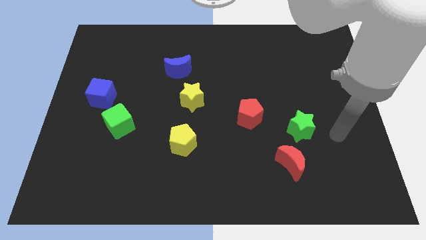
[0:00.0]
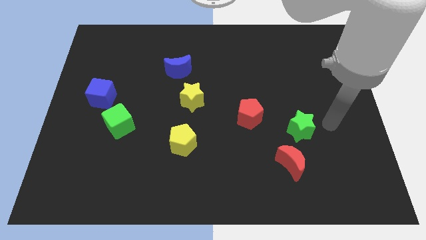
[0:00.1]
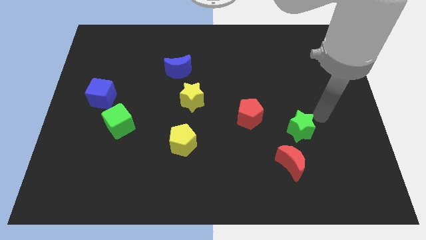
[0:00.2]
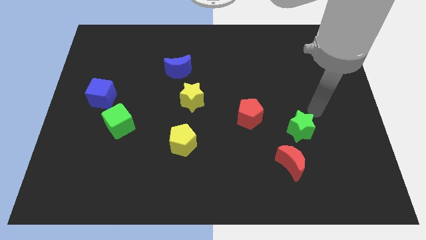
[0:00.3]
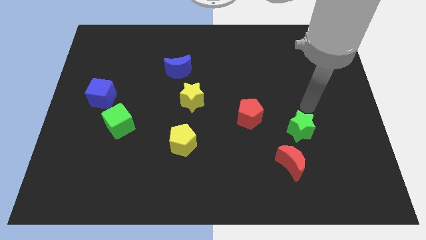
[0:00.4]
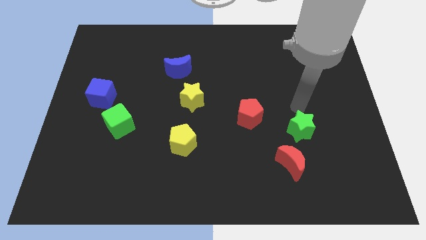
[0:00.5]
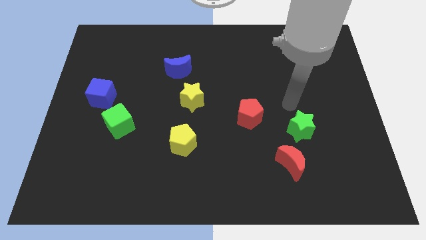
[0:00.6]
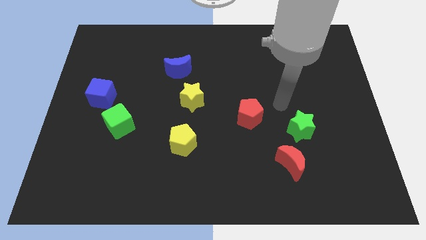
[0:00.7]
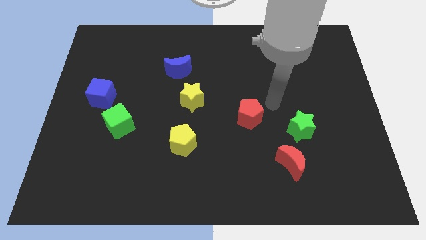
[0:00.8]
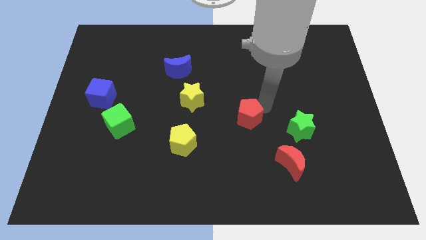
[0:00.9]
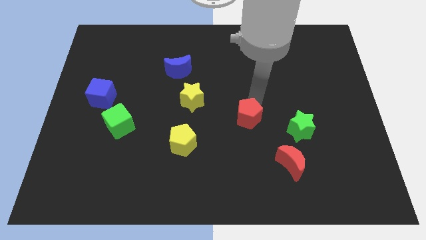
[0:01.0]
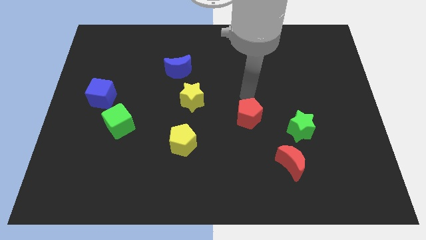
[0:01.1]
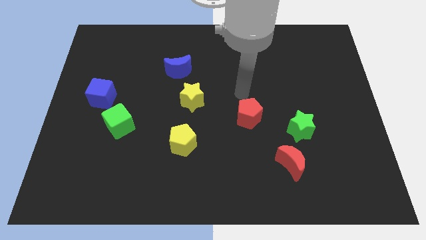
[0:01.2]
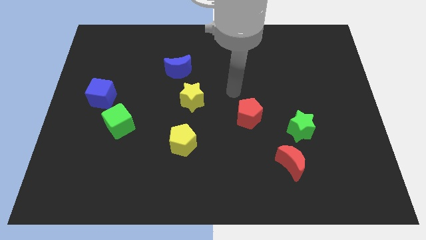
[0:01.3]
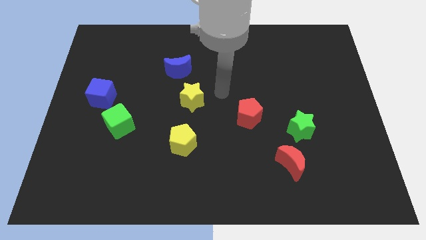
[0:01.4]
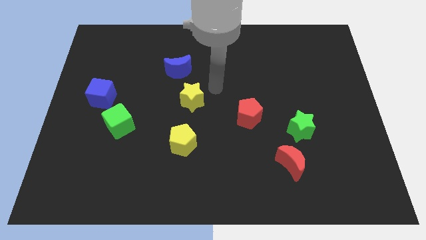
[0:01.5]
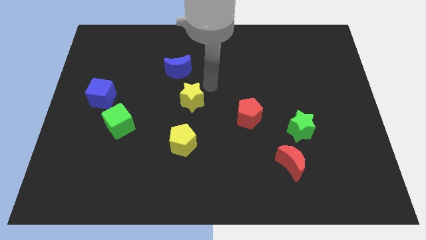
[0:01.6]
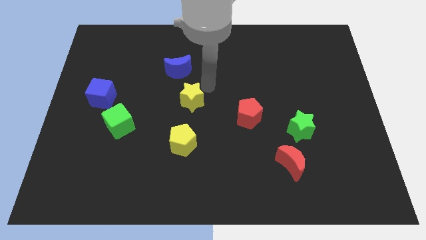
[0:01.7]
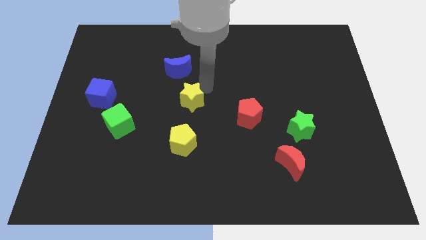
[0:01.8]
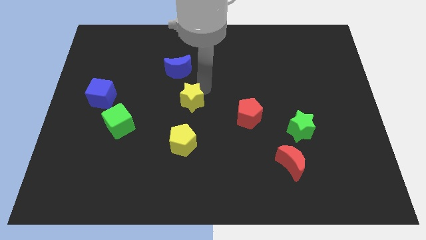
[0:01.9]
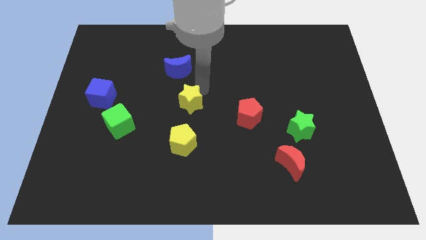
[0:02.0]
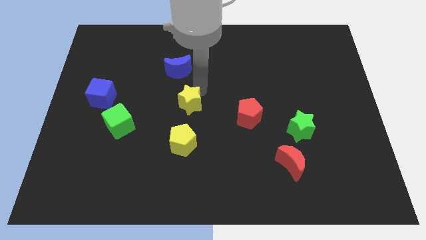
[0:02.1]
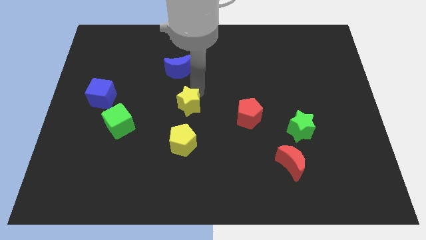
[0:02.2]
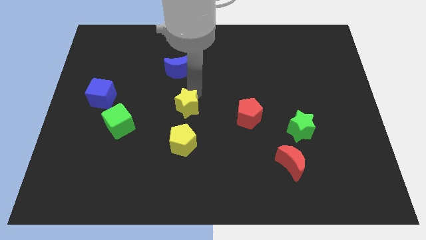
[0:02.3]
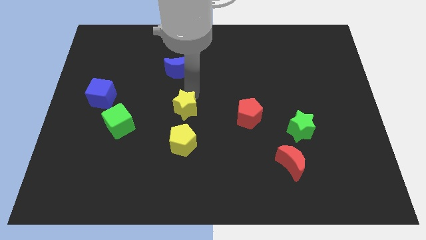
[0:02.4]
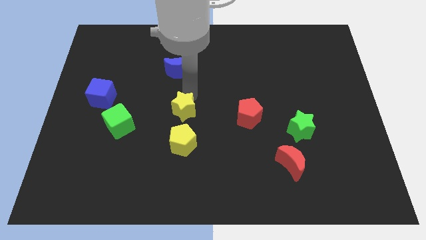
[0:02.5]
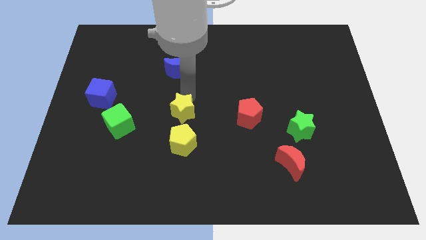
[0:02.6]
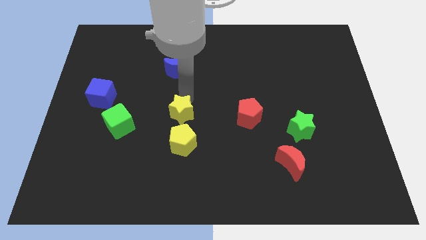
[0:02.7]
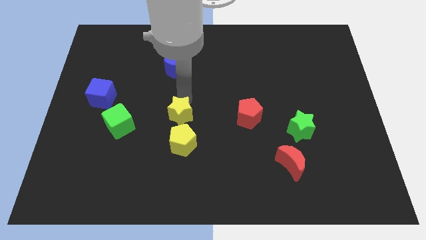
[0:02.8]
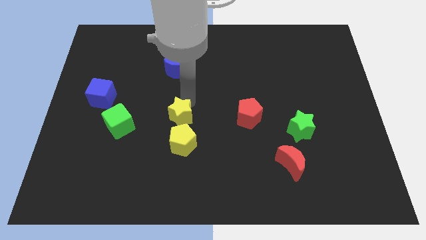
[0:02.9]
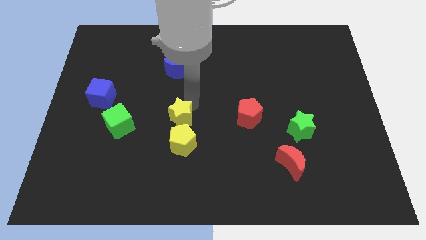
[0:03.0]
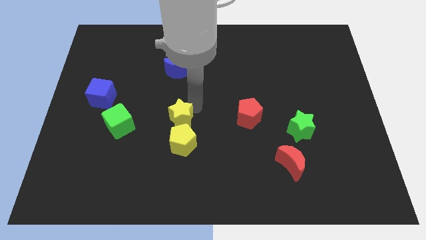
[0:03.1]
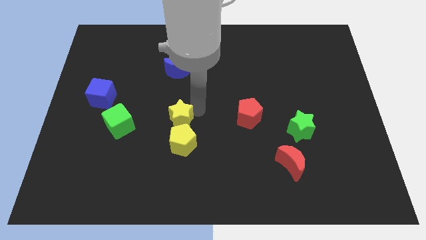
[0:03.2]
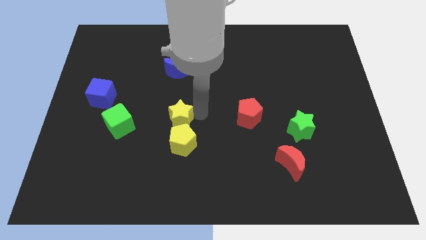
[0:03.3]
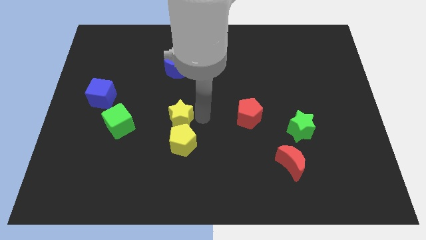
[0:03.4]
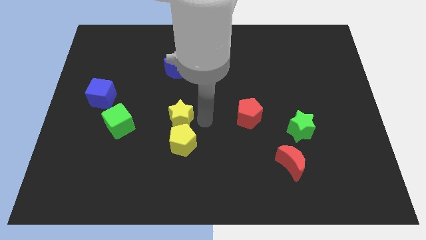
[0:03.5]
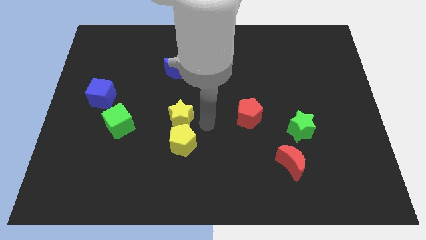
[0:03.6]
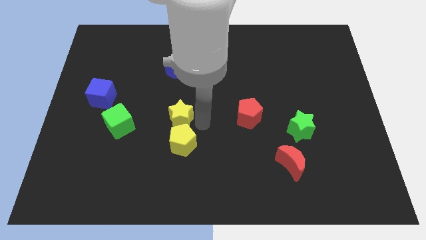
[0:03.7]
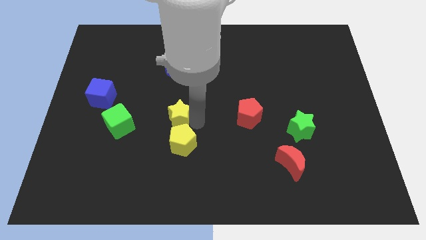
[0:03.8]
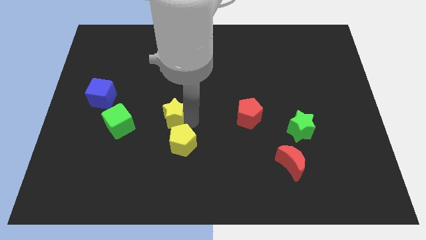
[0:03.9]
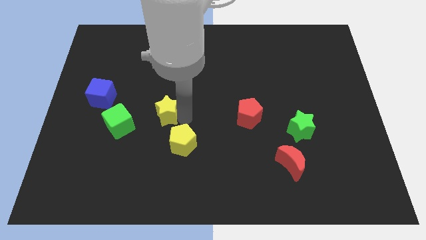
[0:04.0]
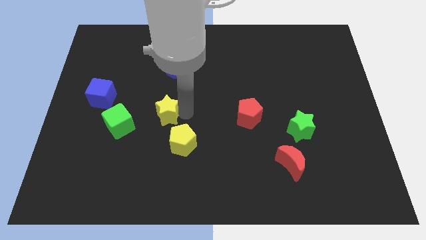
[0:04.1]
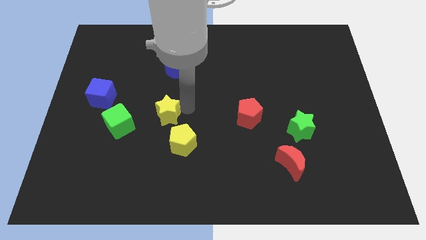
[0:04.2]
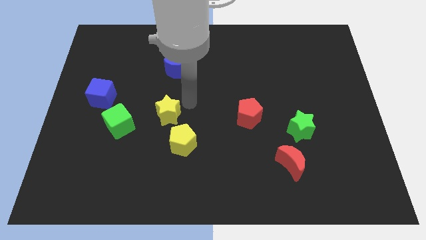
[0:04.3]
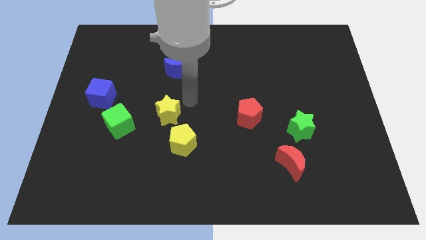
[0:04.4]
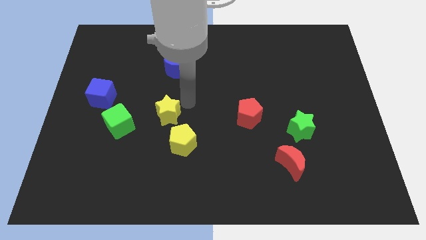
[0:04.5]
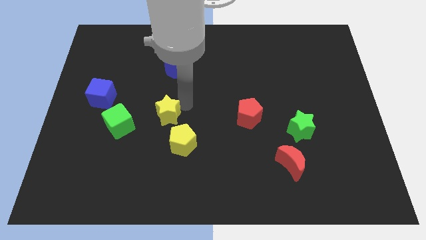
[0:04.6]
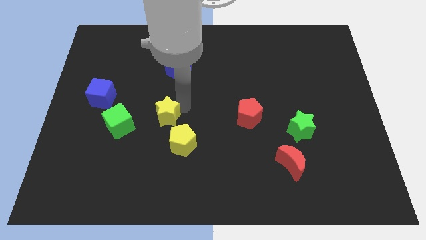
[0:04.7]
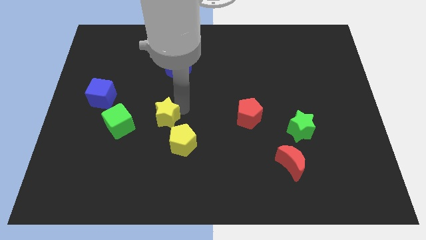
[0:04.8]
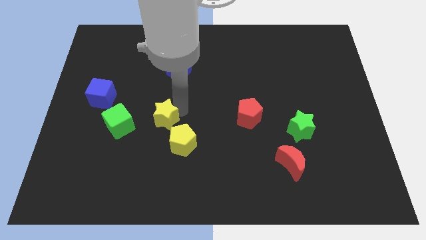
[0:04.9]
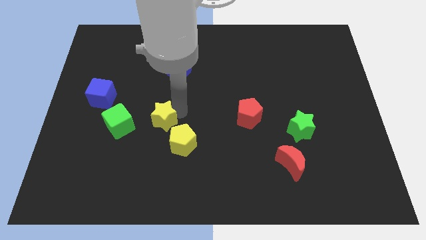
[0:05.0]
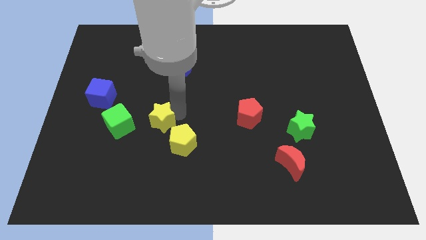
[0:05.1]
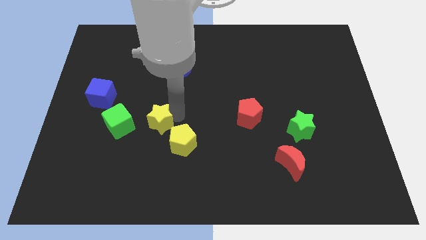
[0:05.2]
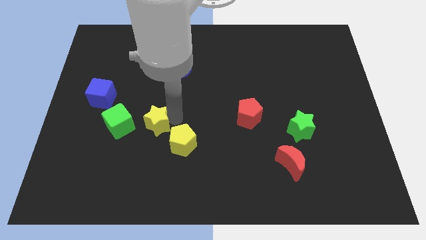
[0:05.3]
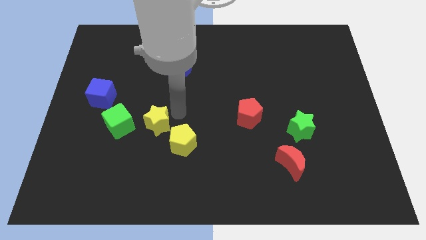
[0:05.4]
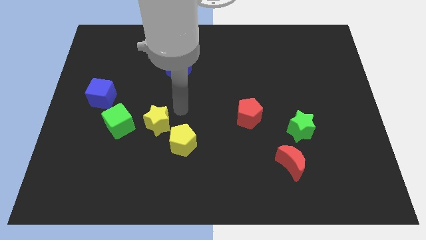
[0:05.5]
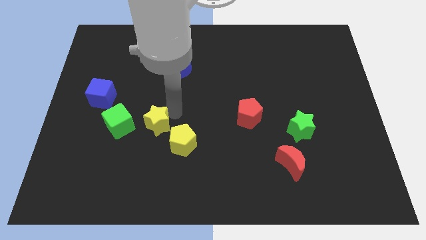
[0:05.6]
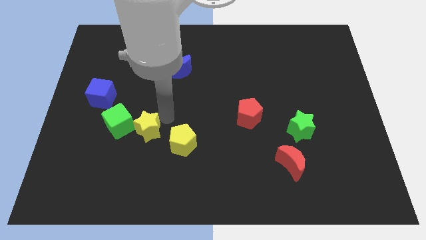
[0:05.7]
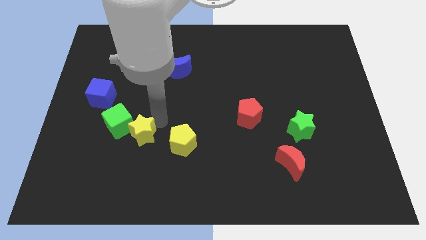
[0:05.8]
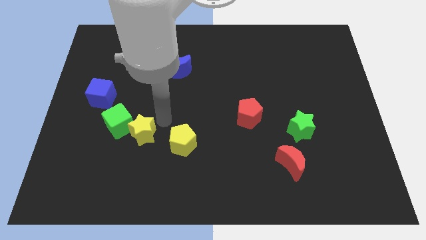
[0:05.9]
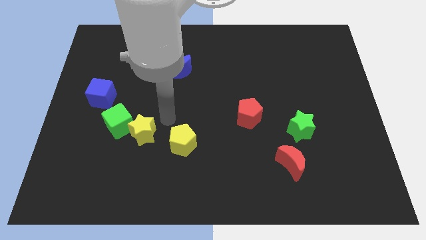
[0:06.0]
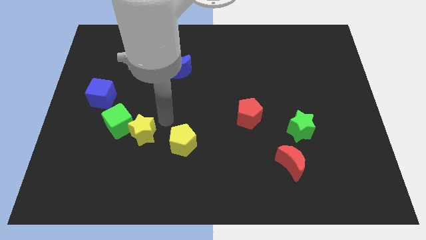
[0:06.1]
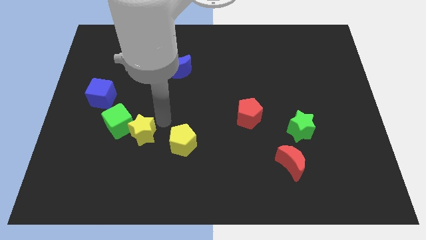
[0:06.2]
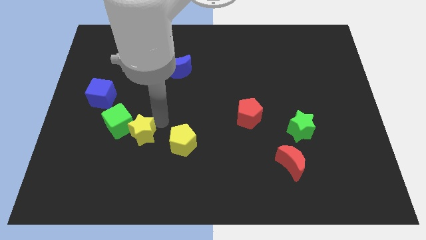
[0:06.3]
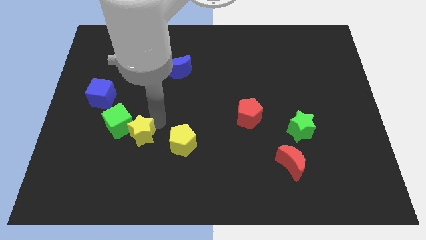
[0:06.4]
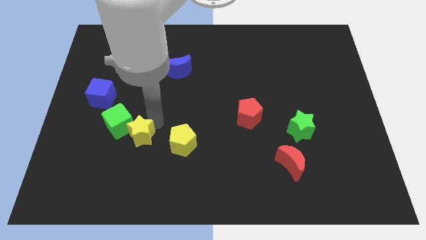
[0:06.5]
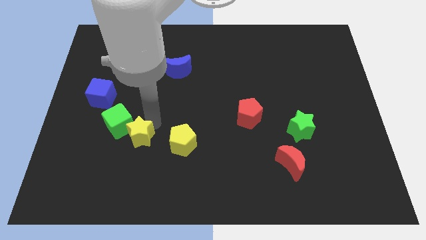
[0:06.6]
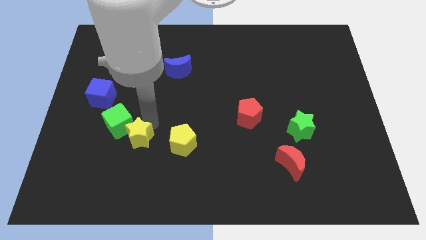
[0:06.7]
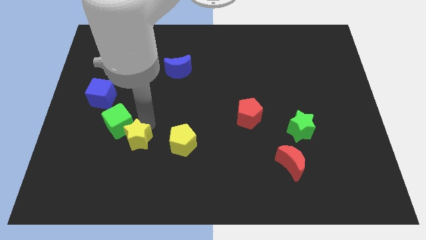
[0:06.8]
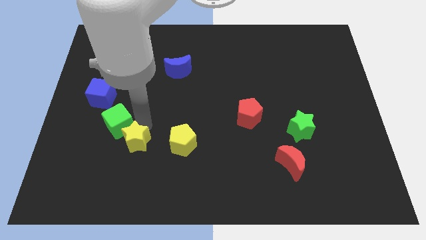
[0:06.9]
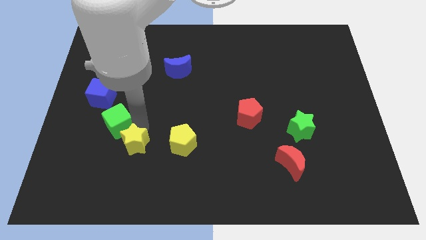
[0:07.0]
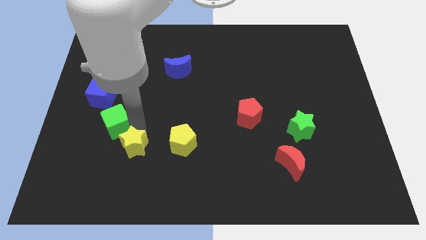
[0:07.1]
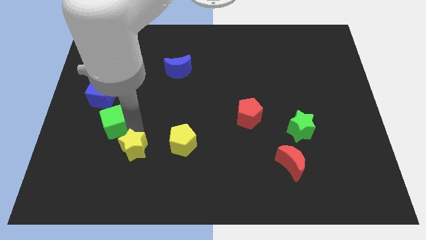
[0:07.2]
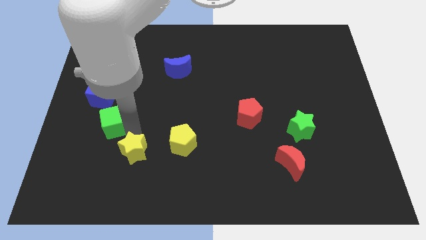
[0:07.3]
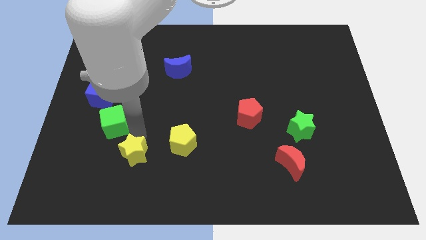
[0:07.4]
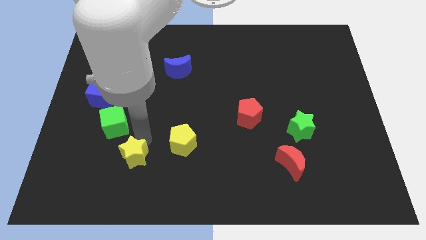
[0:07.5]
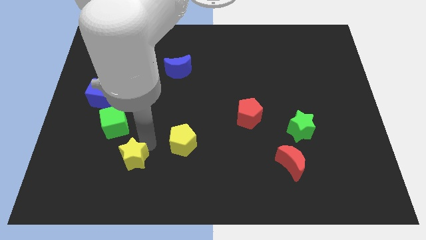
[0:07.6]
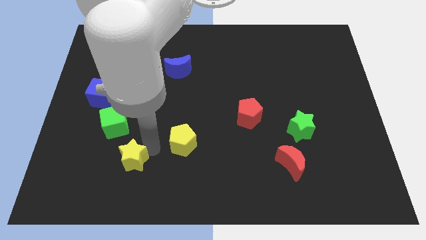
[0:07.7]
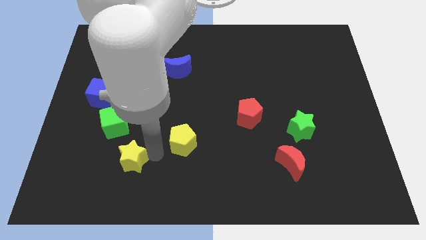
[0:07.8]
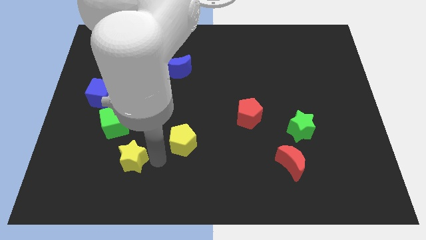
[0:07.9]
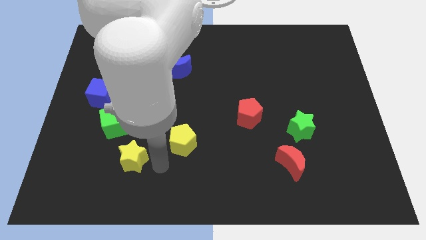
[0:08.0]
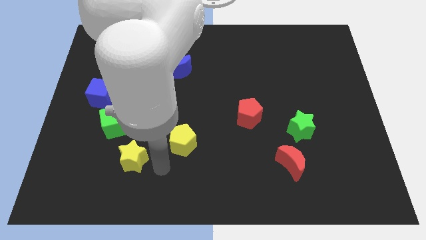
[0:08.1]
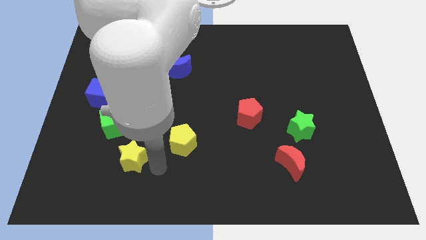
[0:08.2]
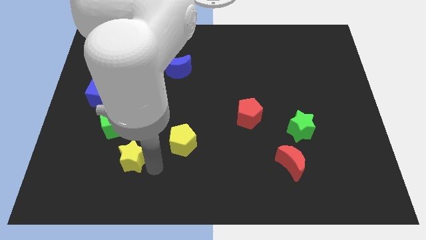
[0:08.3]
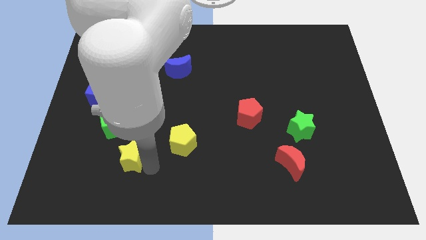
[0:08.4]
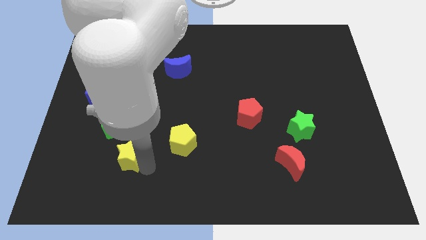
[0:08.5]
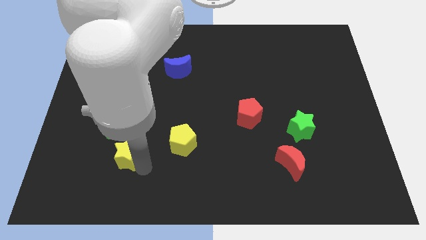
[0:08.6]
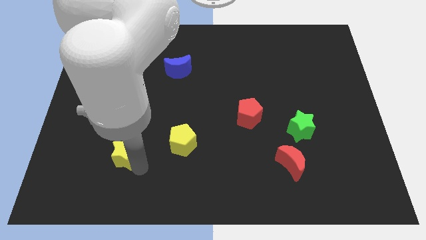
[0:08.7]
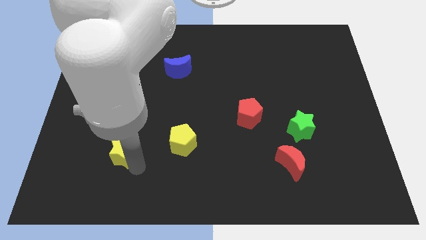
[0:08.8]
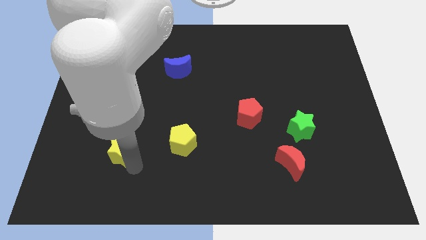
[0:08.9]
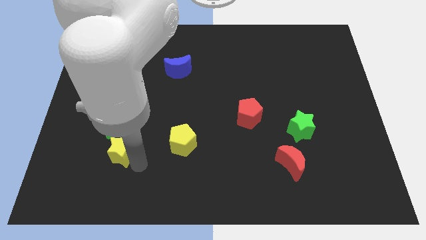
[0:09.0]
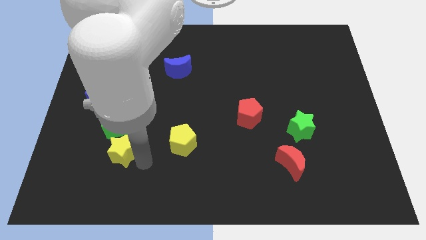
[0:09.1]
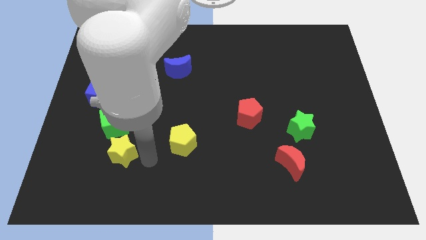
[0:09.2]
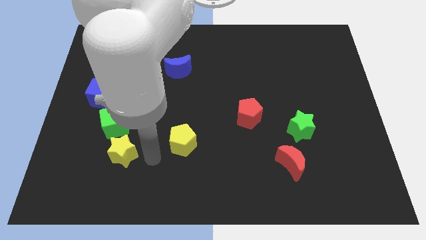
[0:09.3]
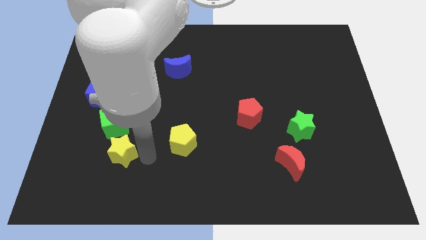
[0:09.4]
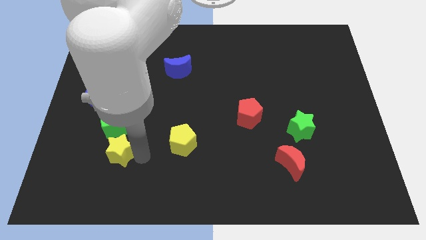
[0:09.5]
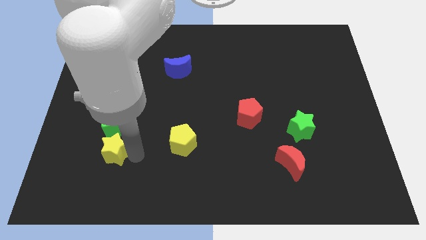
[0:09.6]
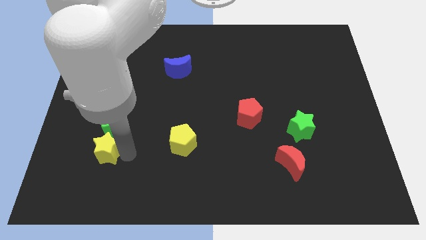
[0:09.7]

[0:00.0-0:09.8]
slide the yellow star to the bottom left side of the green cube
